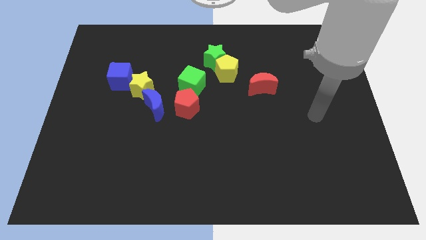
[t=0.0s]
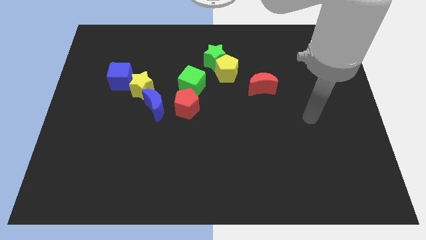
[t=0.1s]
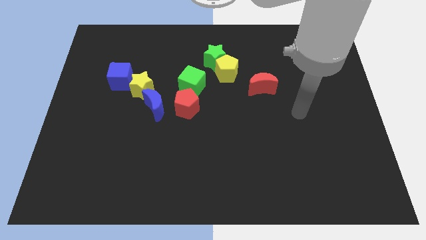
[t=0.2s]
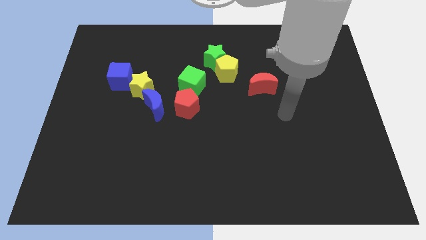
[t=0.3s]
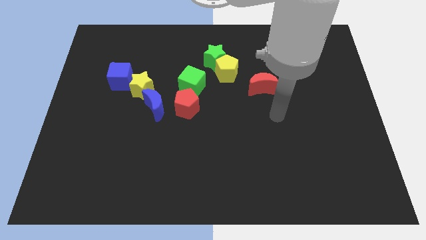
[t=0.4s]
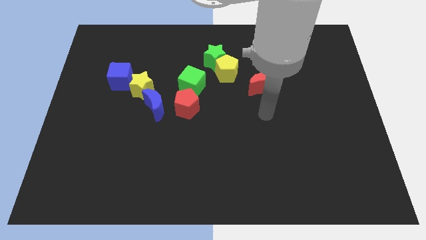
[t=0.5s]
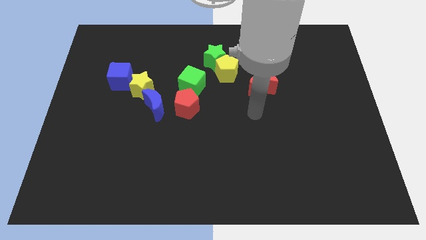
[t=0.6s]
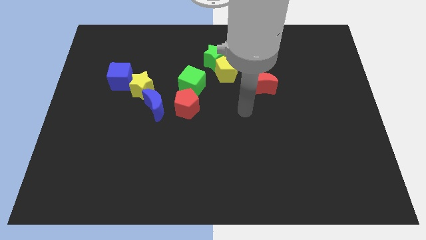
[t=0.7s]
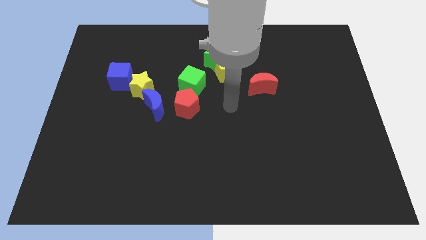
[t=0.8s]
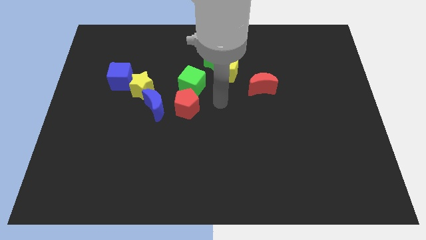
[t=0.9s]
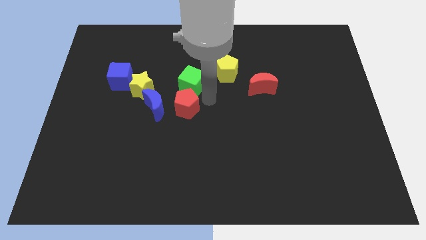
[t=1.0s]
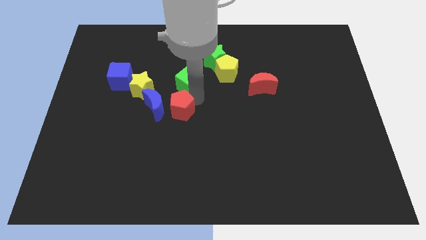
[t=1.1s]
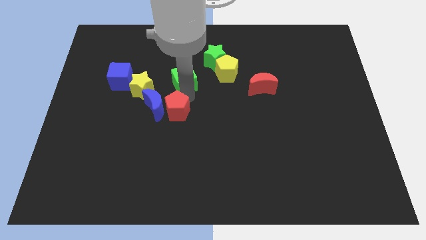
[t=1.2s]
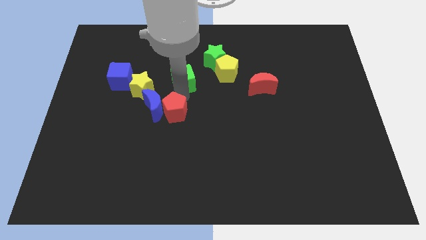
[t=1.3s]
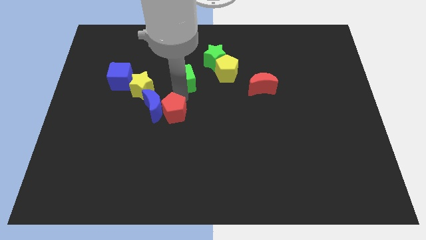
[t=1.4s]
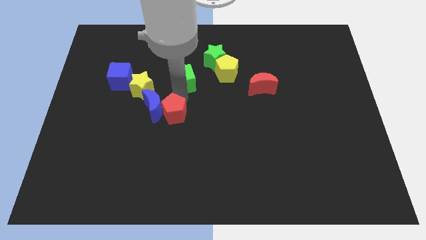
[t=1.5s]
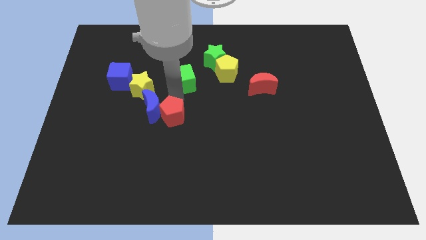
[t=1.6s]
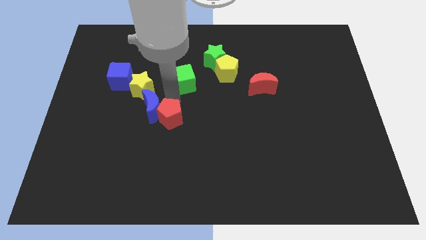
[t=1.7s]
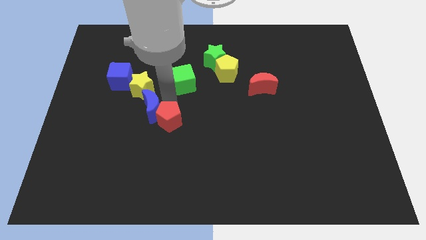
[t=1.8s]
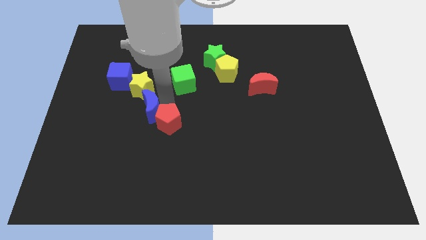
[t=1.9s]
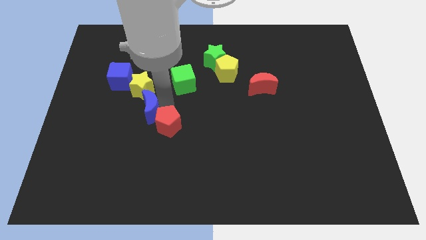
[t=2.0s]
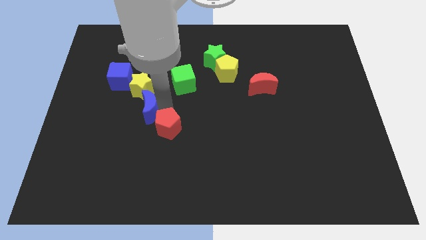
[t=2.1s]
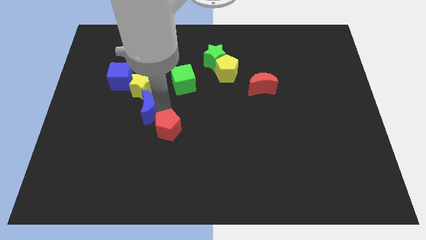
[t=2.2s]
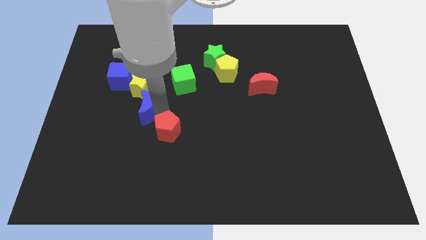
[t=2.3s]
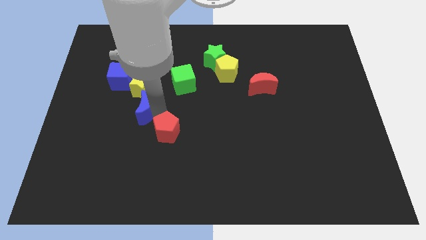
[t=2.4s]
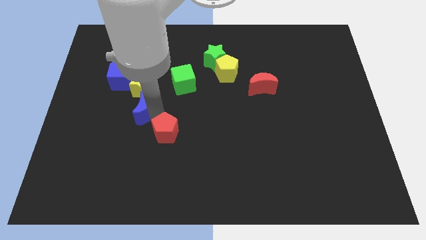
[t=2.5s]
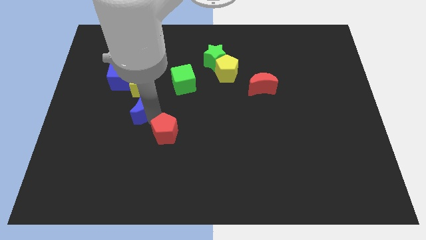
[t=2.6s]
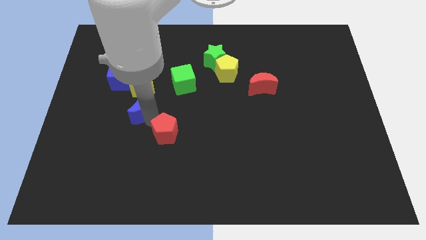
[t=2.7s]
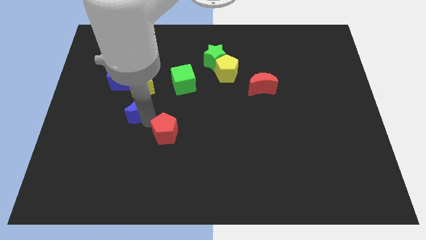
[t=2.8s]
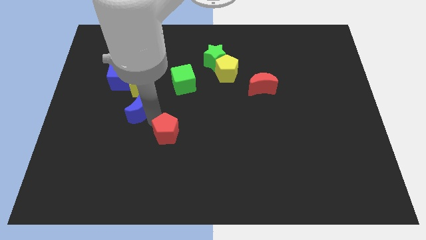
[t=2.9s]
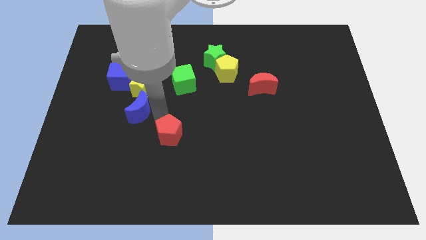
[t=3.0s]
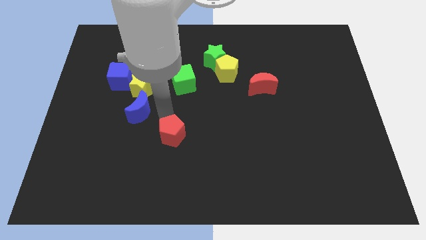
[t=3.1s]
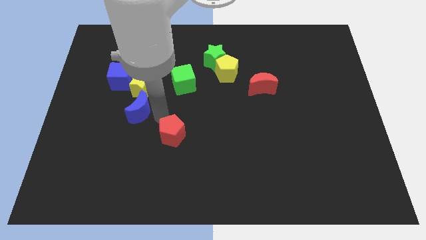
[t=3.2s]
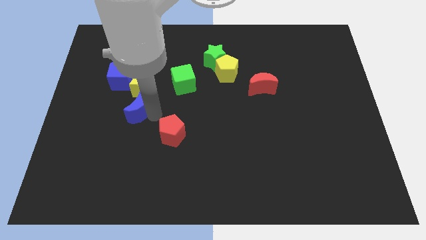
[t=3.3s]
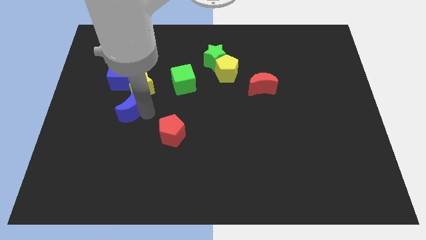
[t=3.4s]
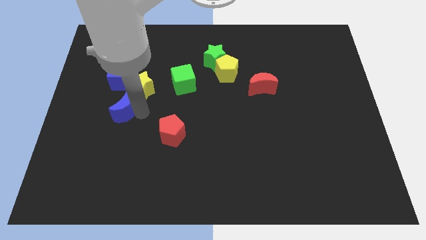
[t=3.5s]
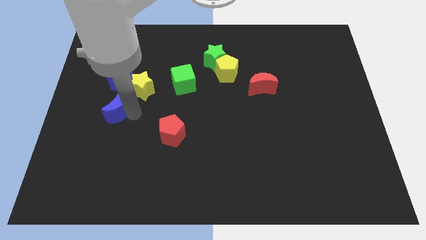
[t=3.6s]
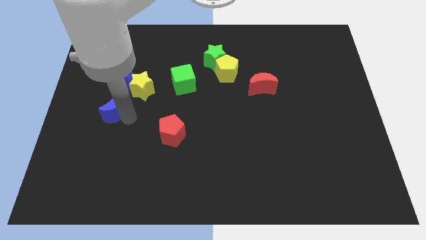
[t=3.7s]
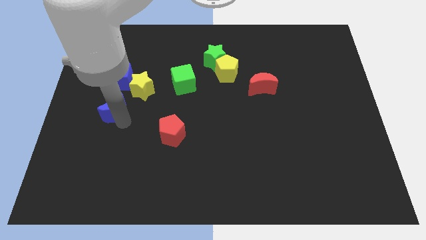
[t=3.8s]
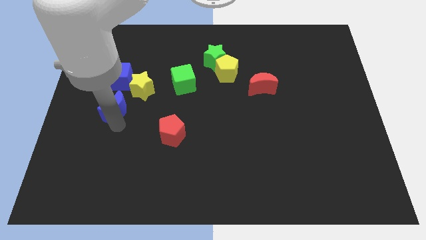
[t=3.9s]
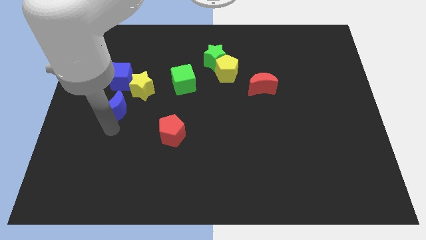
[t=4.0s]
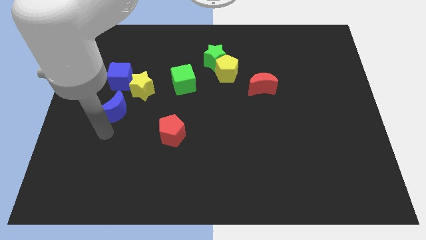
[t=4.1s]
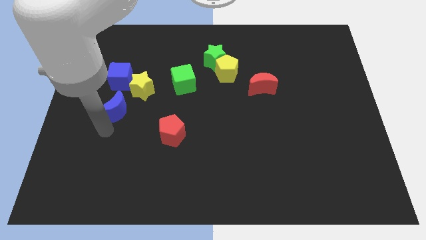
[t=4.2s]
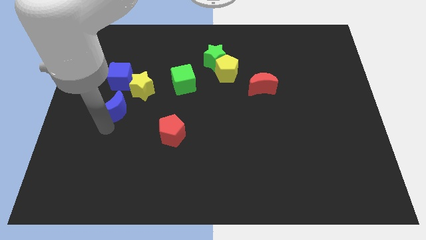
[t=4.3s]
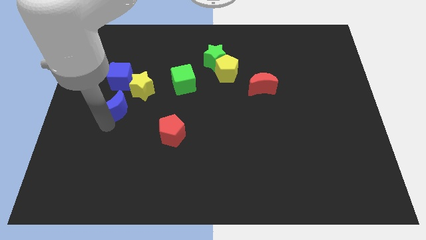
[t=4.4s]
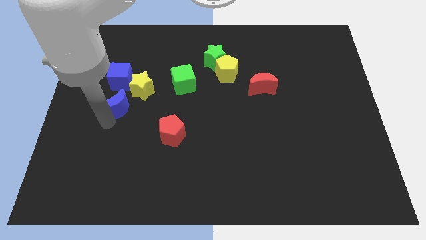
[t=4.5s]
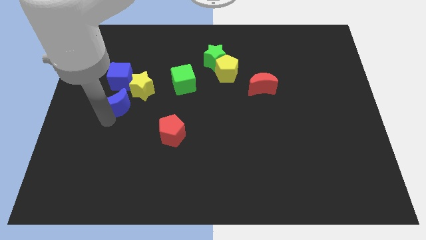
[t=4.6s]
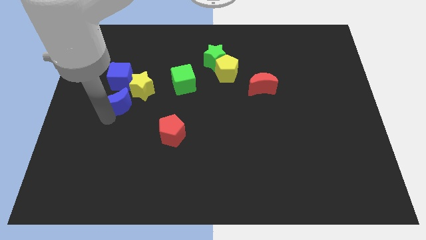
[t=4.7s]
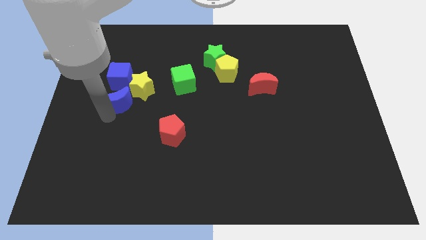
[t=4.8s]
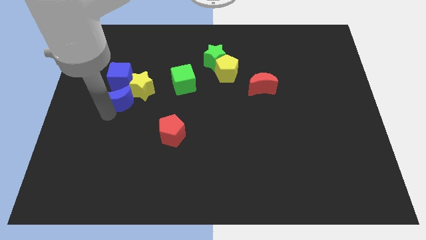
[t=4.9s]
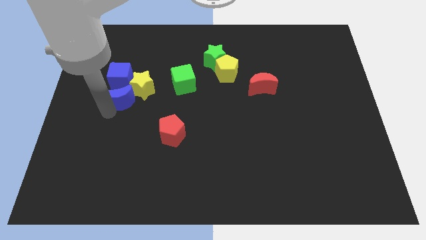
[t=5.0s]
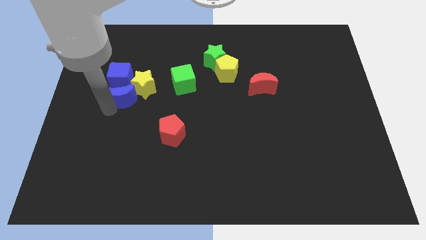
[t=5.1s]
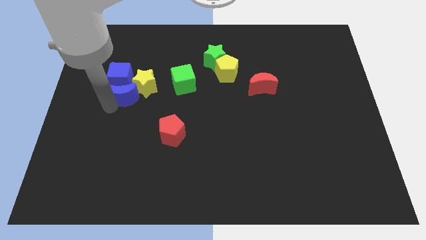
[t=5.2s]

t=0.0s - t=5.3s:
move the blue moon to the blue cube

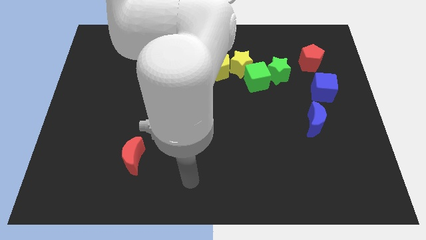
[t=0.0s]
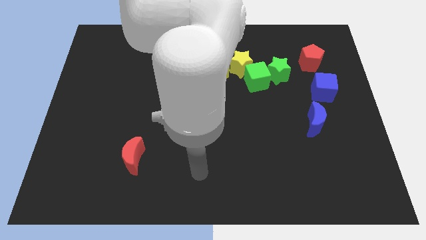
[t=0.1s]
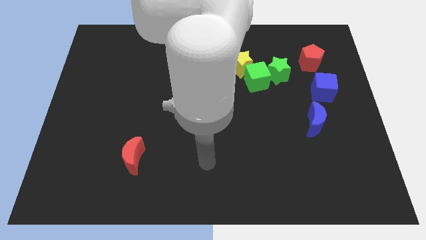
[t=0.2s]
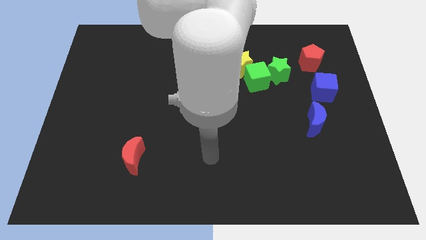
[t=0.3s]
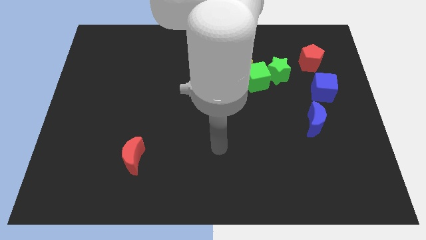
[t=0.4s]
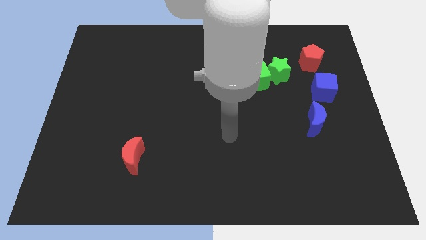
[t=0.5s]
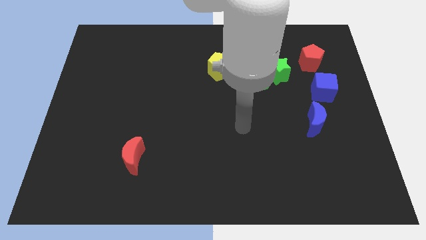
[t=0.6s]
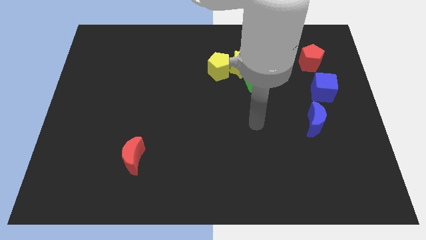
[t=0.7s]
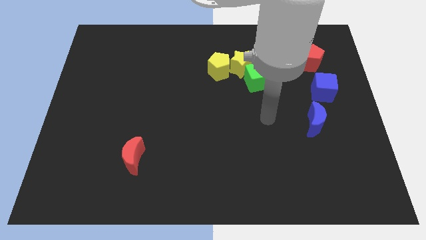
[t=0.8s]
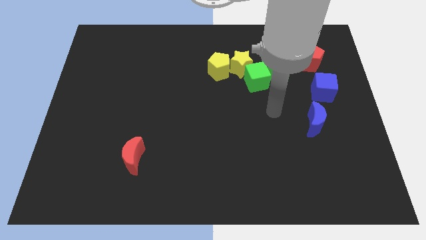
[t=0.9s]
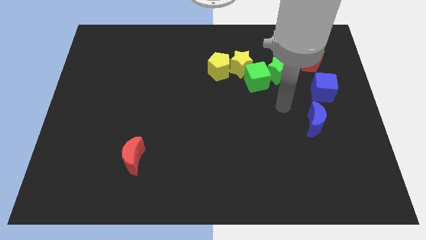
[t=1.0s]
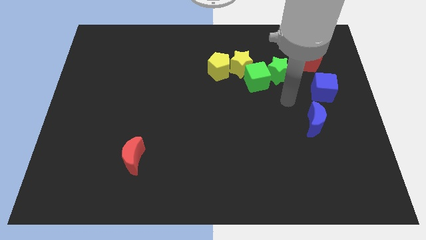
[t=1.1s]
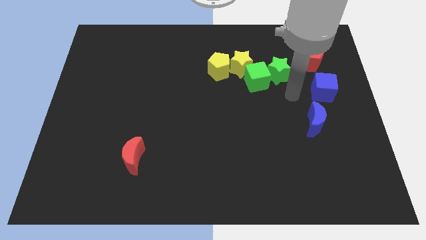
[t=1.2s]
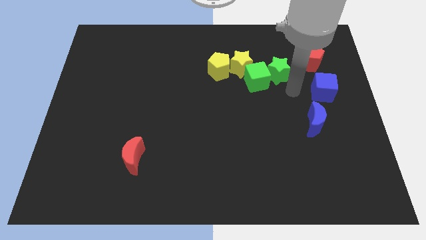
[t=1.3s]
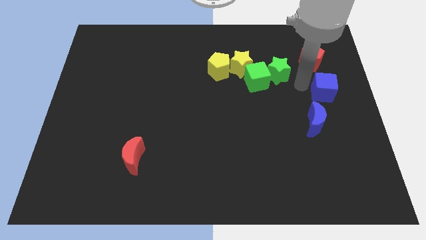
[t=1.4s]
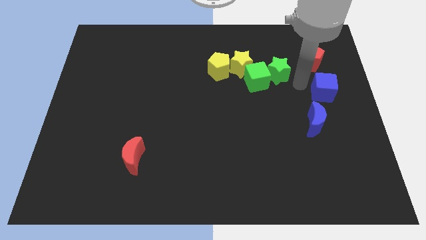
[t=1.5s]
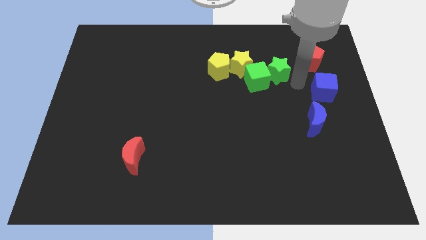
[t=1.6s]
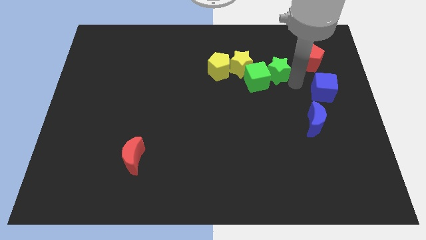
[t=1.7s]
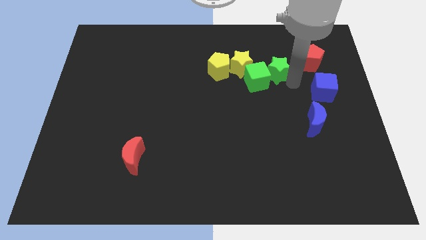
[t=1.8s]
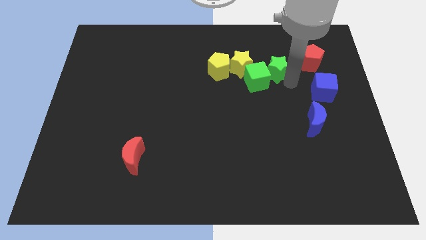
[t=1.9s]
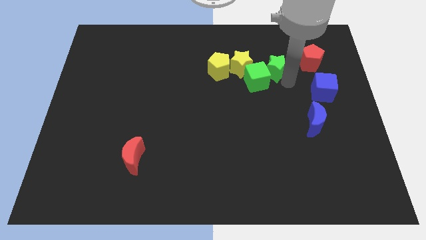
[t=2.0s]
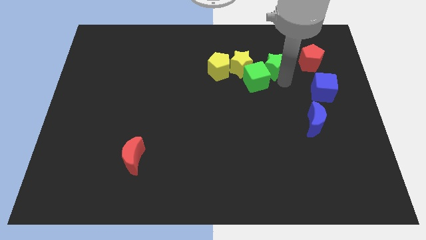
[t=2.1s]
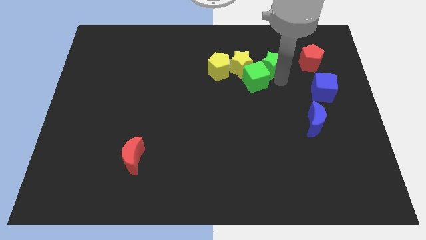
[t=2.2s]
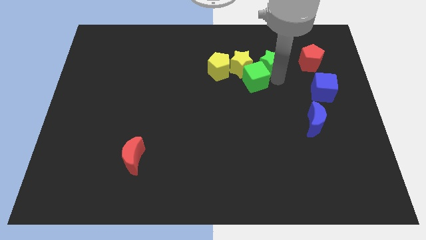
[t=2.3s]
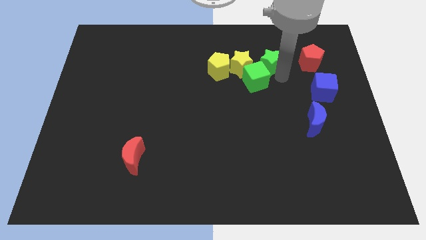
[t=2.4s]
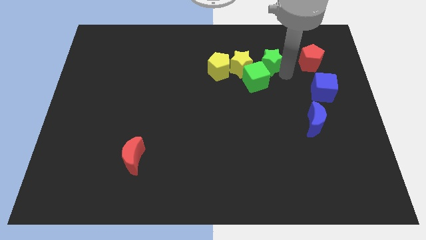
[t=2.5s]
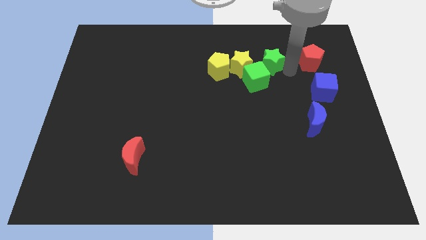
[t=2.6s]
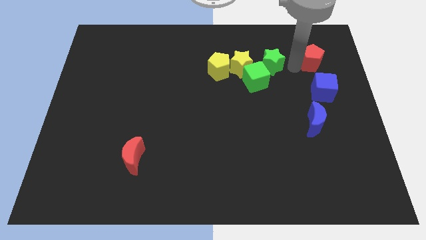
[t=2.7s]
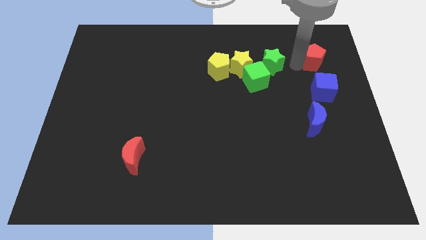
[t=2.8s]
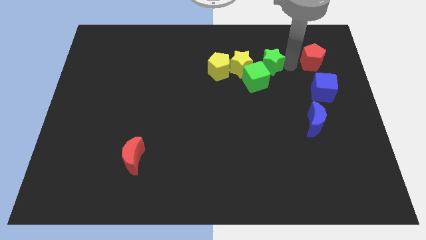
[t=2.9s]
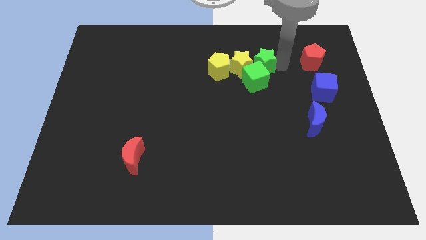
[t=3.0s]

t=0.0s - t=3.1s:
move the green star close to the yellow star
